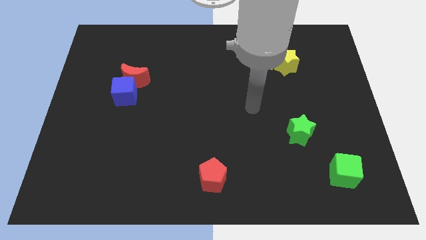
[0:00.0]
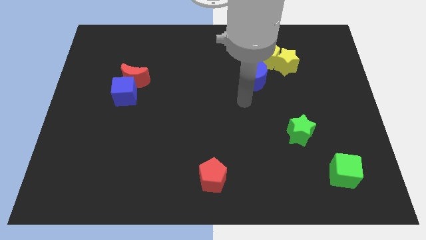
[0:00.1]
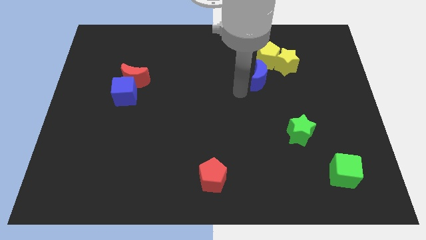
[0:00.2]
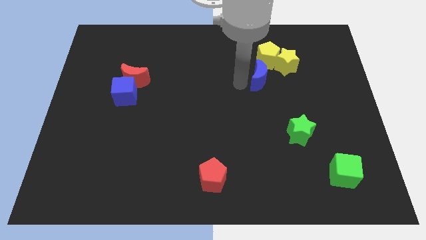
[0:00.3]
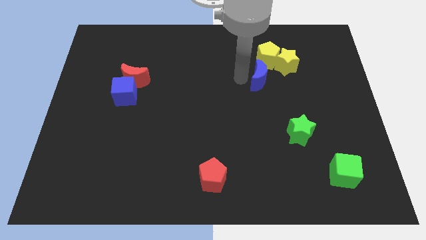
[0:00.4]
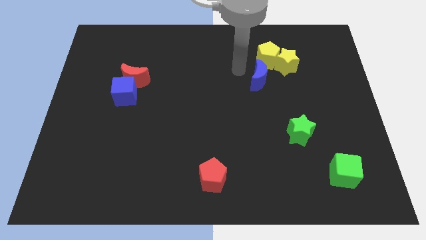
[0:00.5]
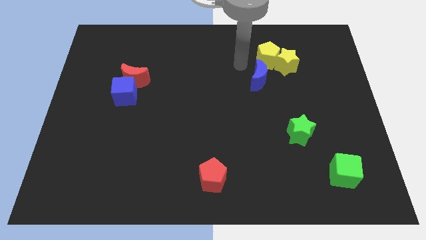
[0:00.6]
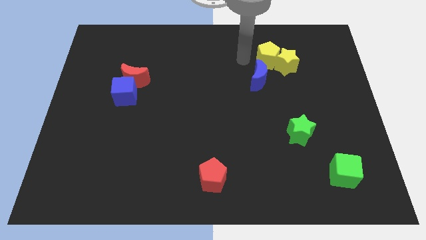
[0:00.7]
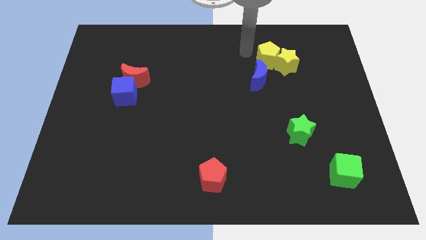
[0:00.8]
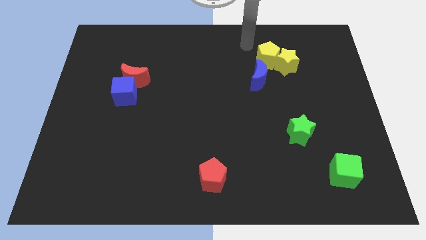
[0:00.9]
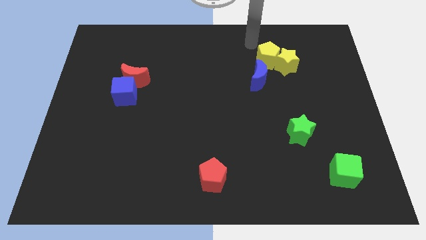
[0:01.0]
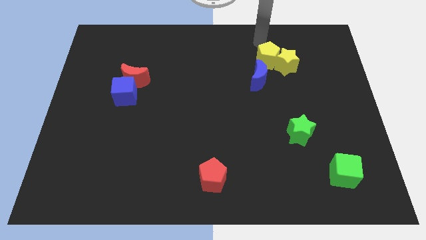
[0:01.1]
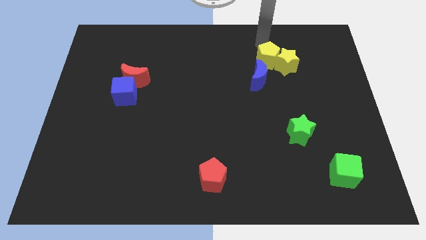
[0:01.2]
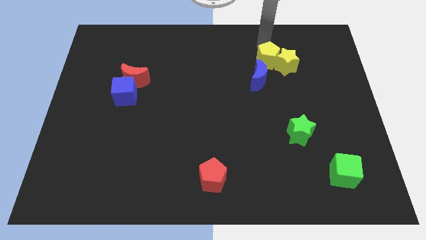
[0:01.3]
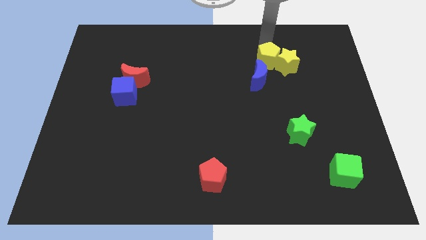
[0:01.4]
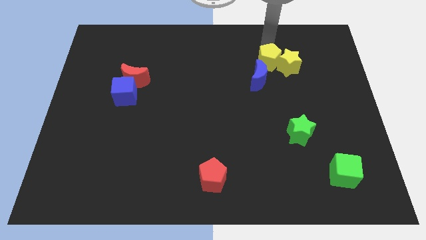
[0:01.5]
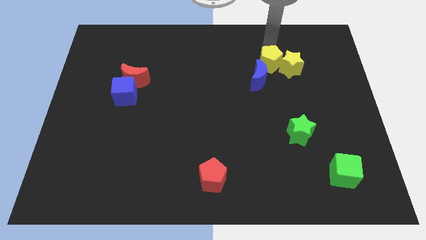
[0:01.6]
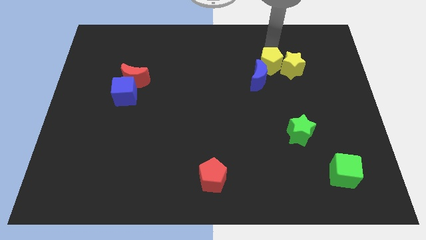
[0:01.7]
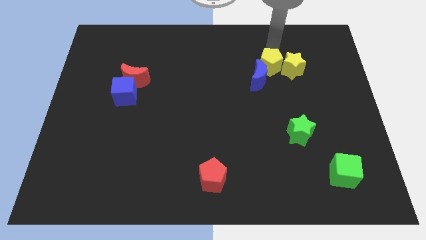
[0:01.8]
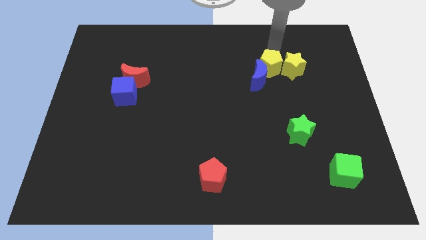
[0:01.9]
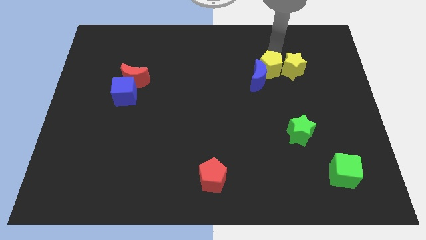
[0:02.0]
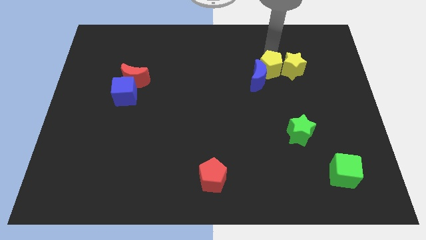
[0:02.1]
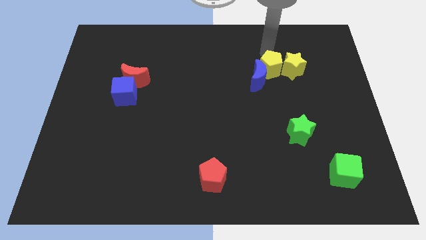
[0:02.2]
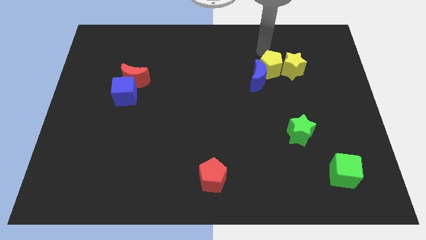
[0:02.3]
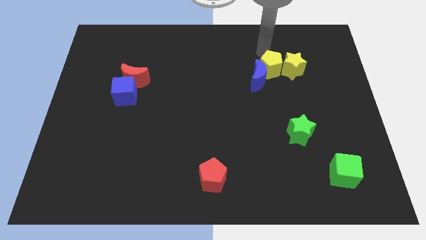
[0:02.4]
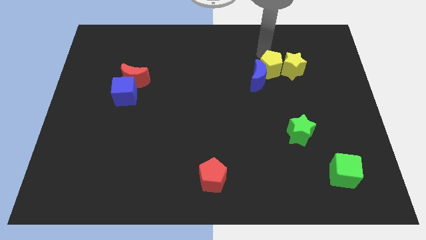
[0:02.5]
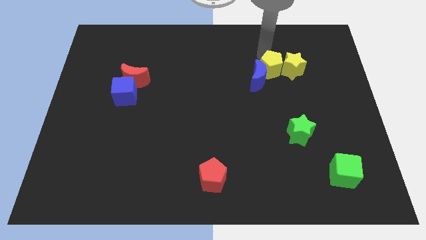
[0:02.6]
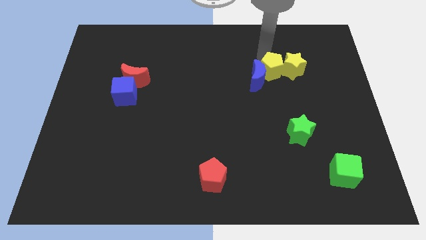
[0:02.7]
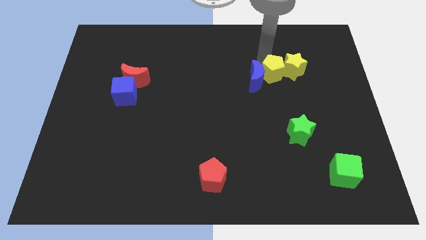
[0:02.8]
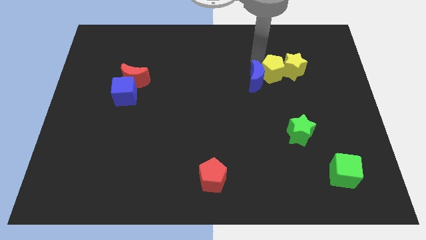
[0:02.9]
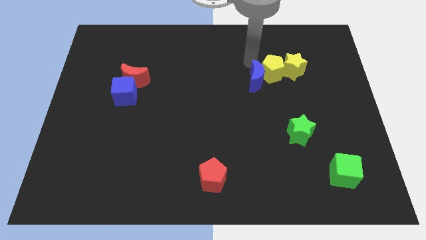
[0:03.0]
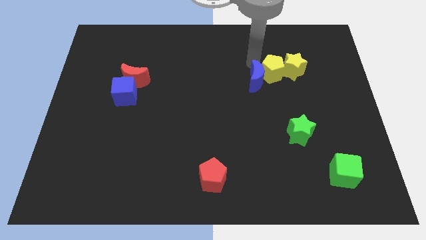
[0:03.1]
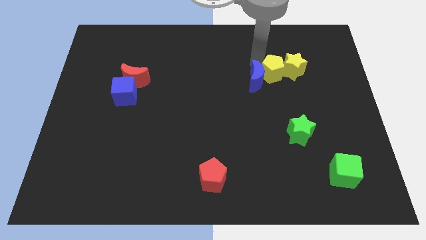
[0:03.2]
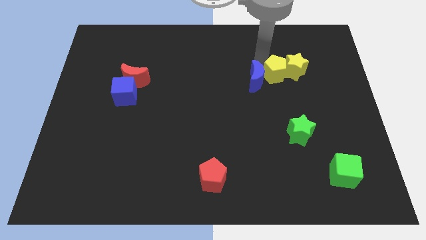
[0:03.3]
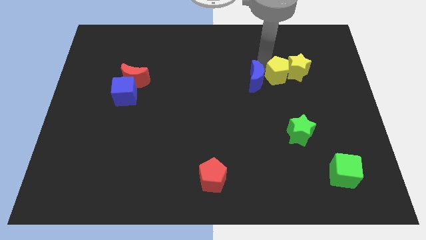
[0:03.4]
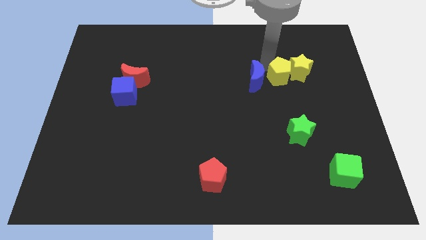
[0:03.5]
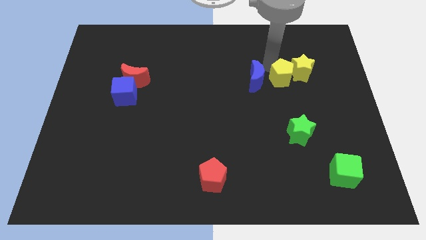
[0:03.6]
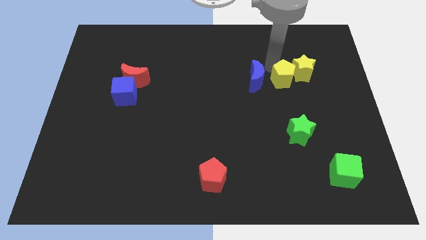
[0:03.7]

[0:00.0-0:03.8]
move the yellow pentagon slightly down and then to the right

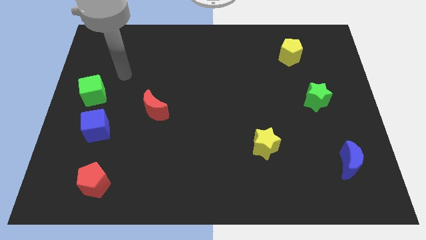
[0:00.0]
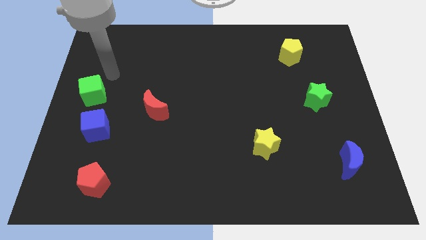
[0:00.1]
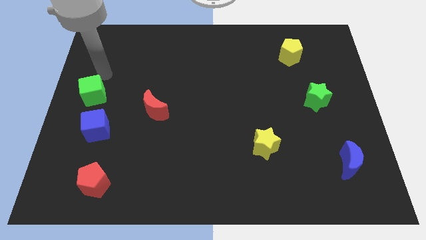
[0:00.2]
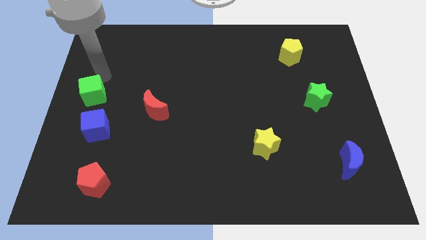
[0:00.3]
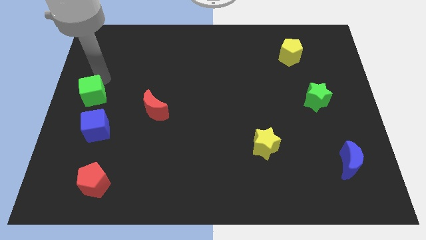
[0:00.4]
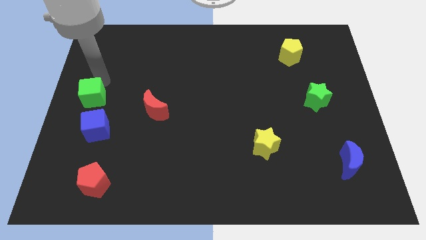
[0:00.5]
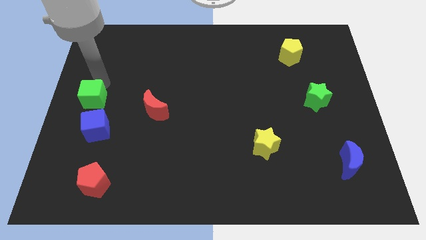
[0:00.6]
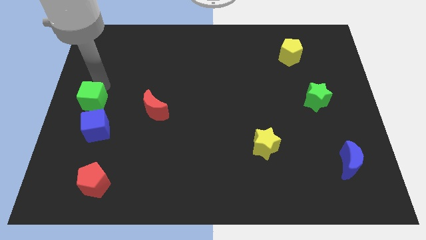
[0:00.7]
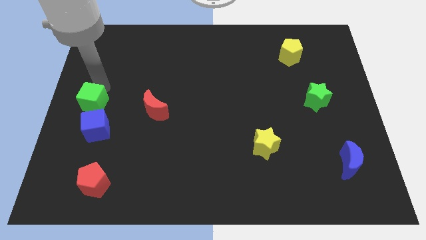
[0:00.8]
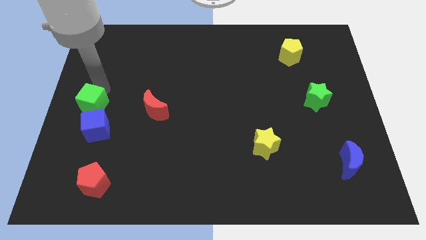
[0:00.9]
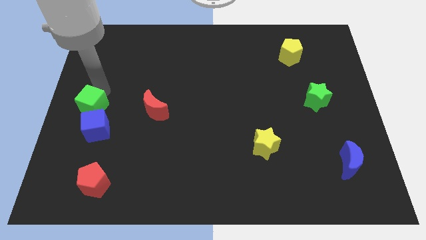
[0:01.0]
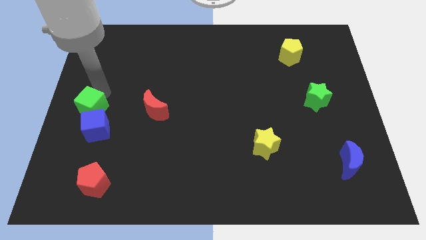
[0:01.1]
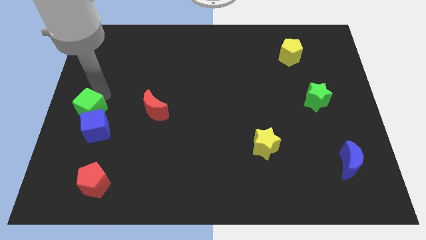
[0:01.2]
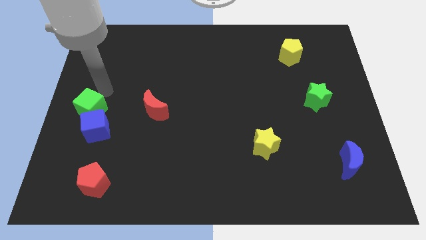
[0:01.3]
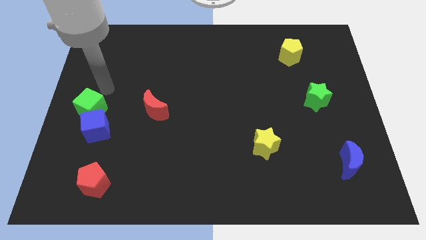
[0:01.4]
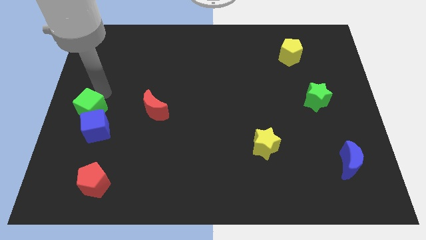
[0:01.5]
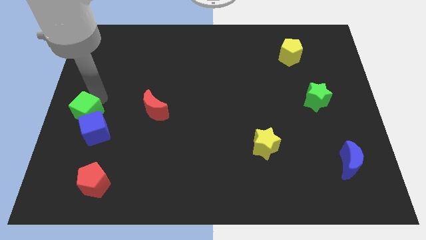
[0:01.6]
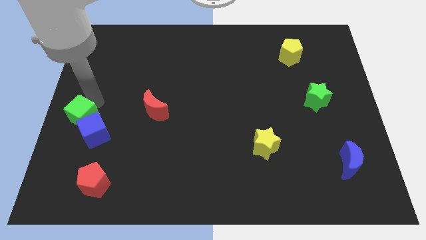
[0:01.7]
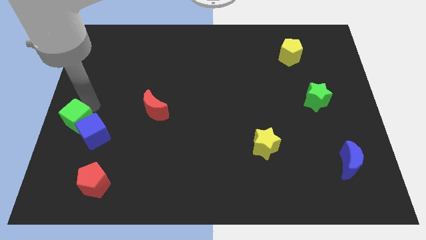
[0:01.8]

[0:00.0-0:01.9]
move the green cube downwards a bit

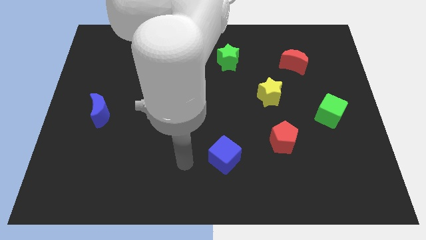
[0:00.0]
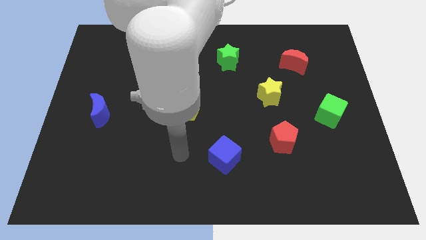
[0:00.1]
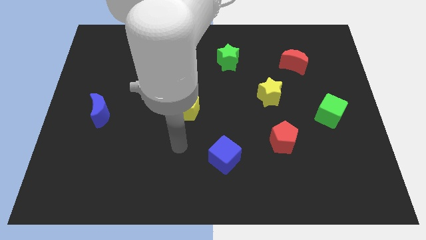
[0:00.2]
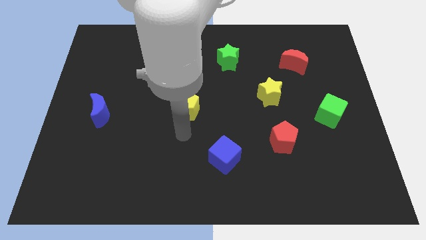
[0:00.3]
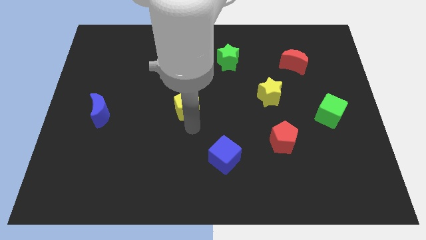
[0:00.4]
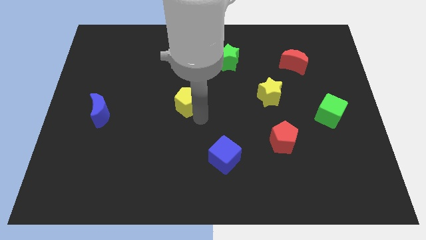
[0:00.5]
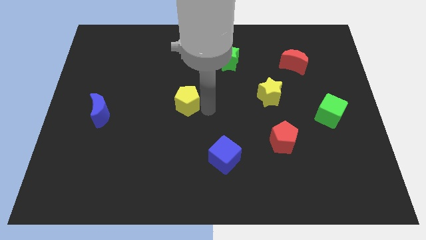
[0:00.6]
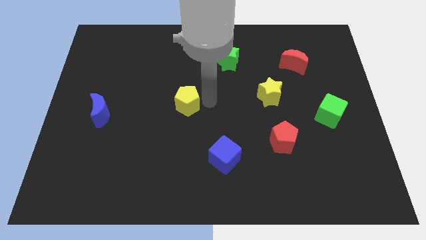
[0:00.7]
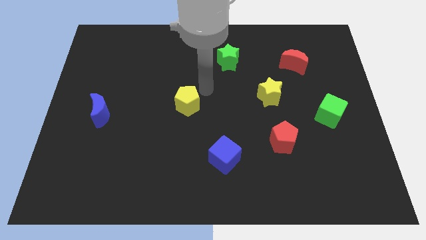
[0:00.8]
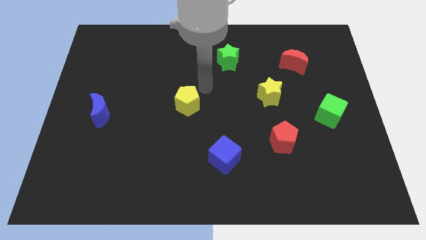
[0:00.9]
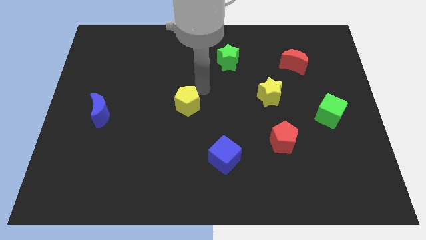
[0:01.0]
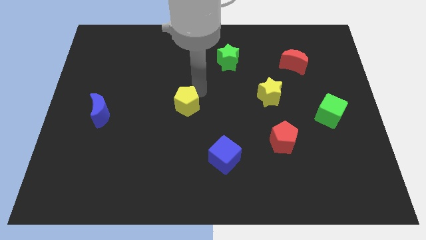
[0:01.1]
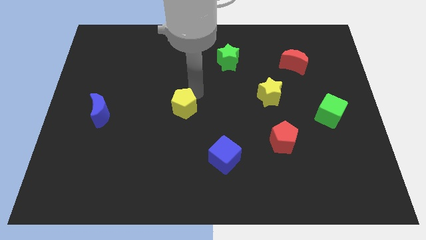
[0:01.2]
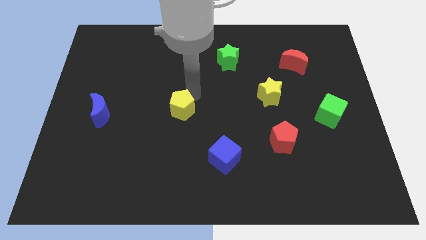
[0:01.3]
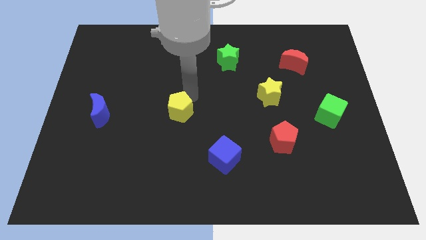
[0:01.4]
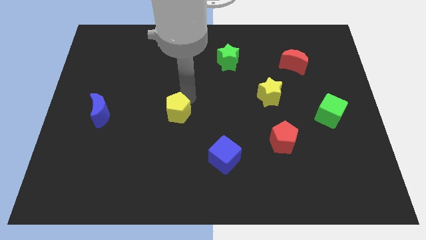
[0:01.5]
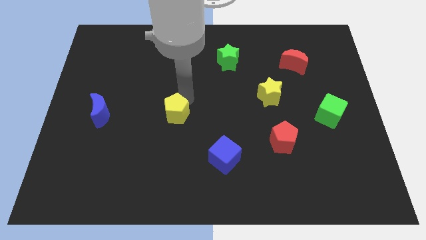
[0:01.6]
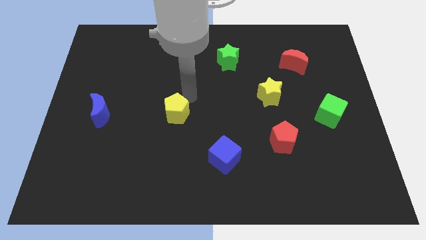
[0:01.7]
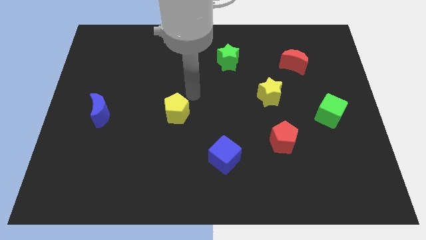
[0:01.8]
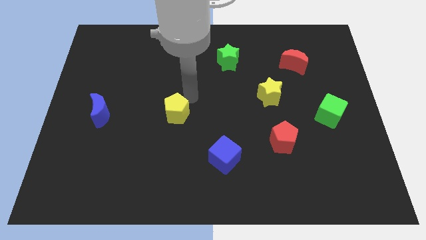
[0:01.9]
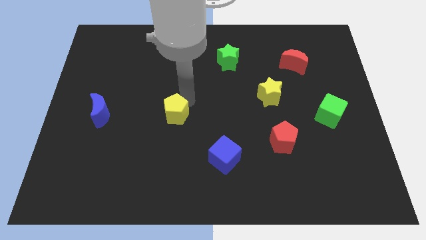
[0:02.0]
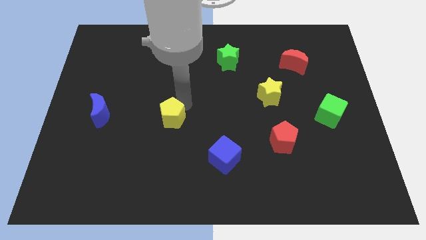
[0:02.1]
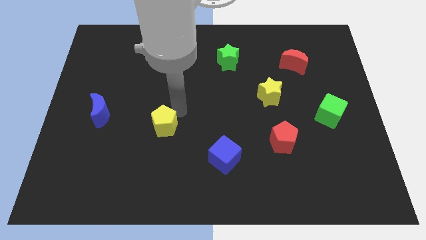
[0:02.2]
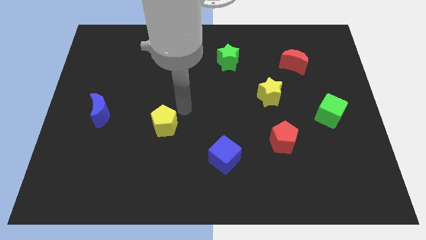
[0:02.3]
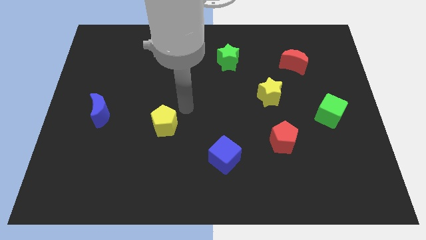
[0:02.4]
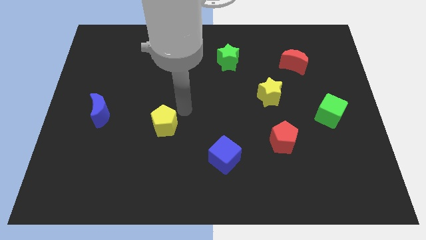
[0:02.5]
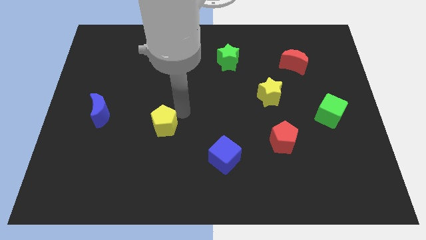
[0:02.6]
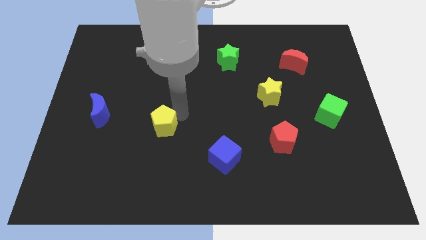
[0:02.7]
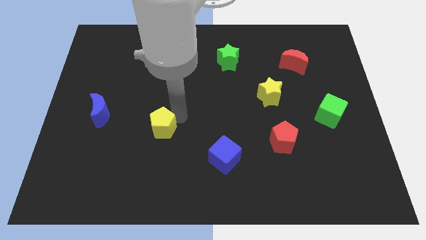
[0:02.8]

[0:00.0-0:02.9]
push the yellow pentagon a little bit down and then left
